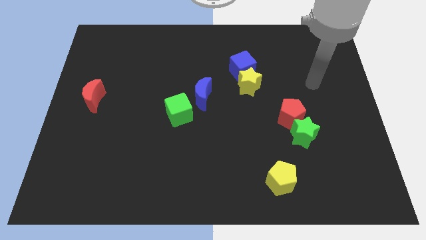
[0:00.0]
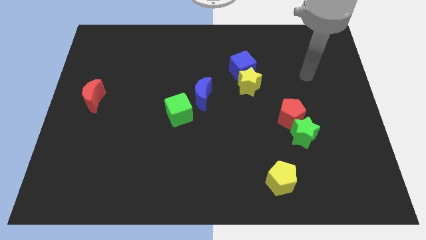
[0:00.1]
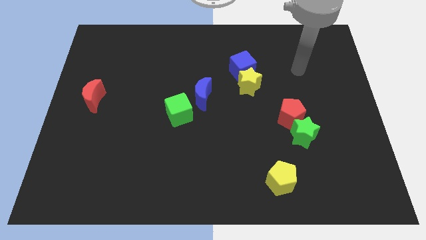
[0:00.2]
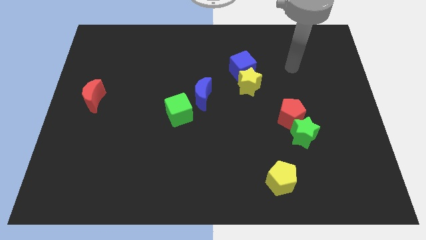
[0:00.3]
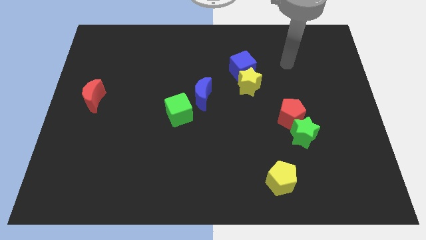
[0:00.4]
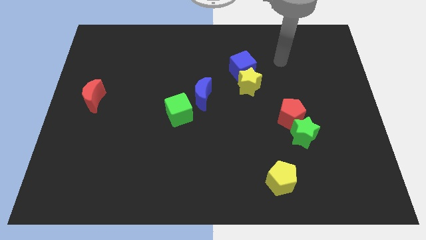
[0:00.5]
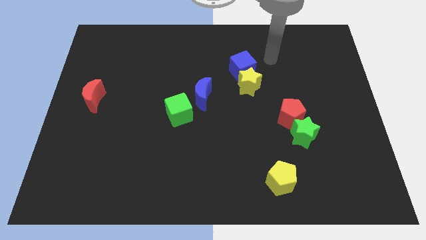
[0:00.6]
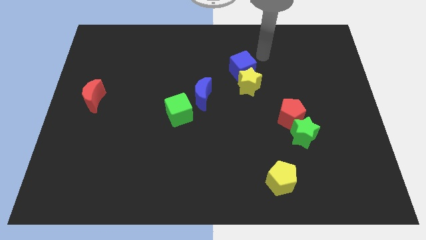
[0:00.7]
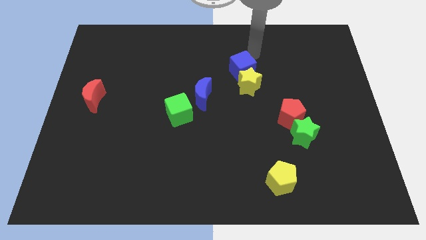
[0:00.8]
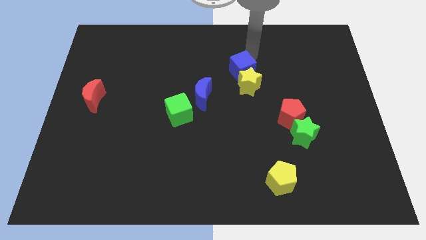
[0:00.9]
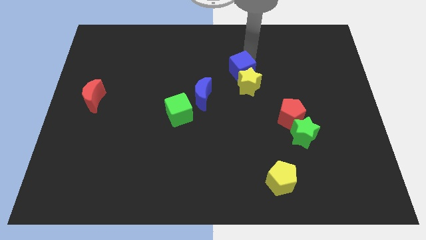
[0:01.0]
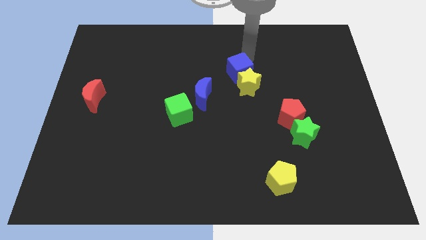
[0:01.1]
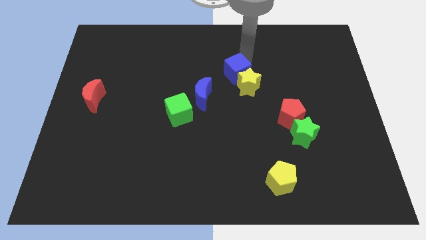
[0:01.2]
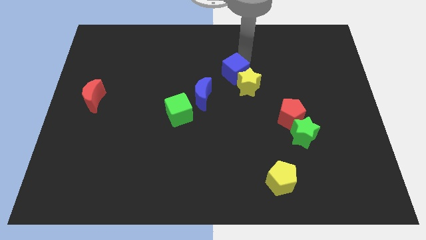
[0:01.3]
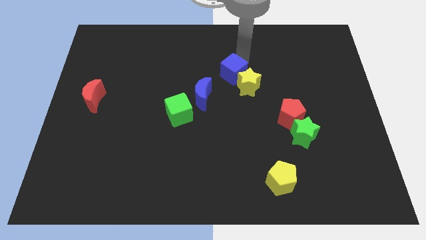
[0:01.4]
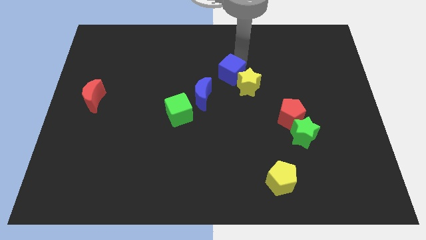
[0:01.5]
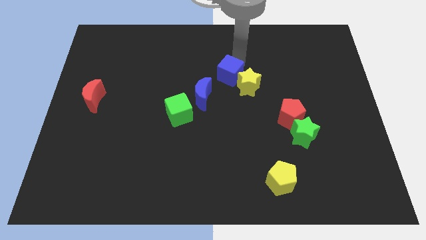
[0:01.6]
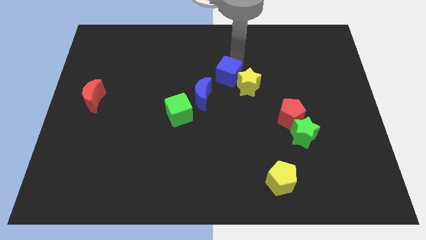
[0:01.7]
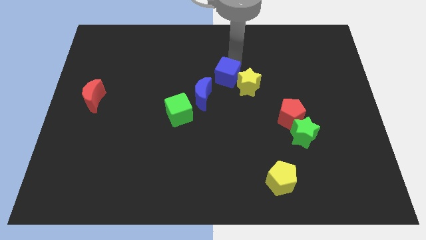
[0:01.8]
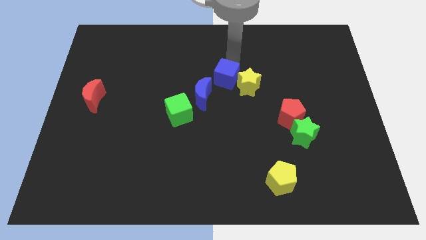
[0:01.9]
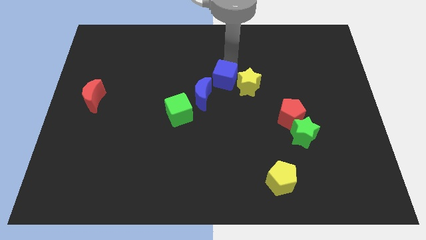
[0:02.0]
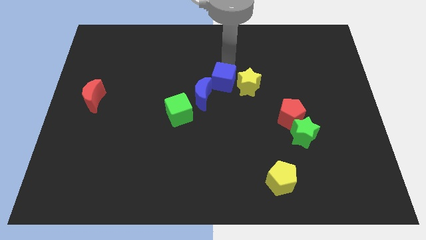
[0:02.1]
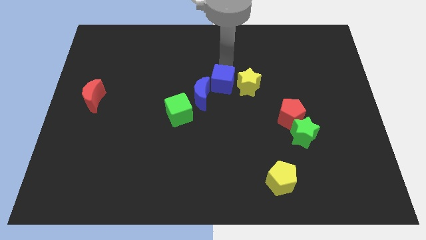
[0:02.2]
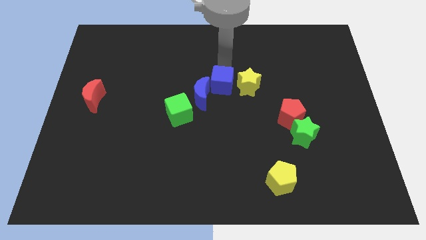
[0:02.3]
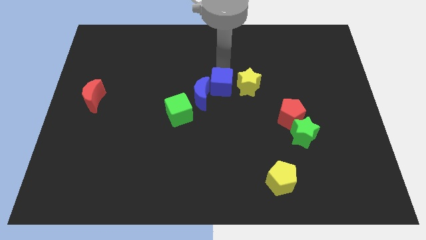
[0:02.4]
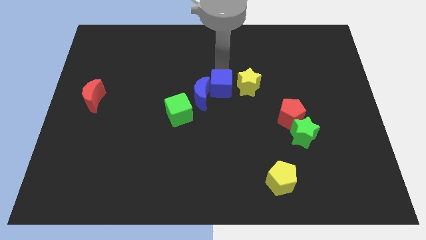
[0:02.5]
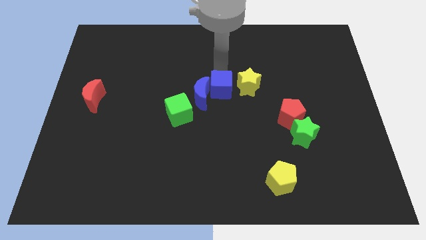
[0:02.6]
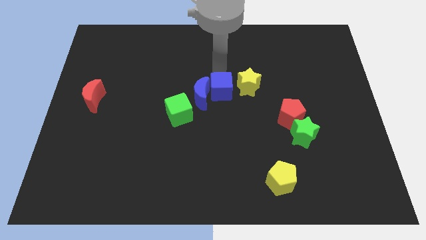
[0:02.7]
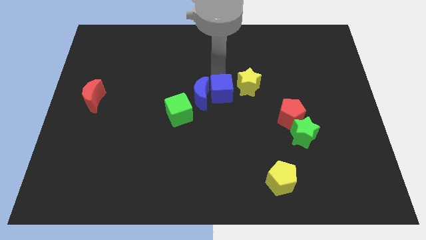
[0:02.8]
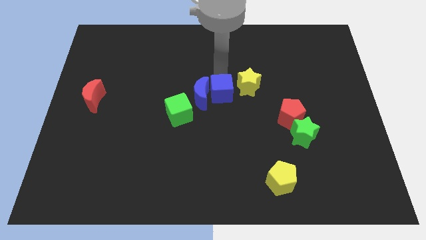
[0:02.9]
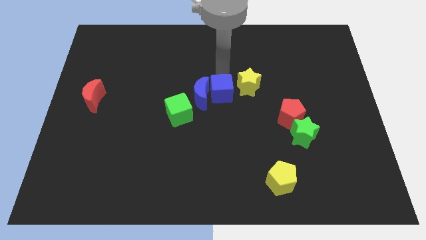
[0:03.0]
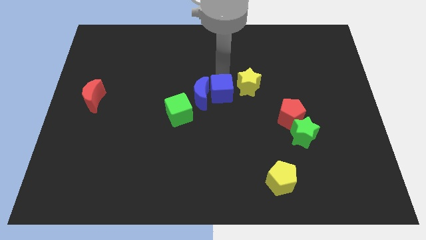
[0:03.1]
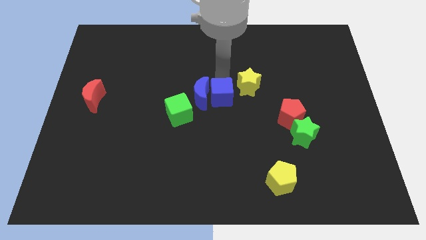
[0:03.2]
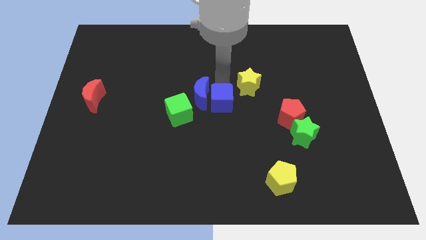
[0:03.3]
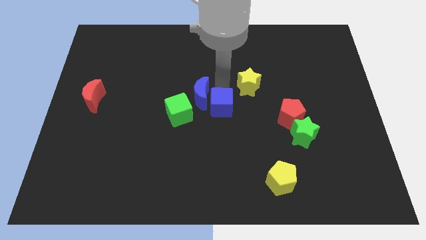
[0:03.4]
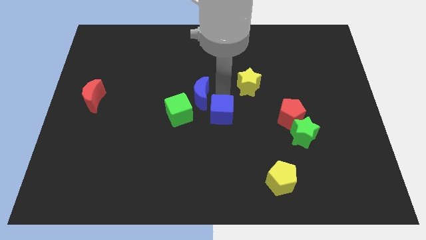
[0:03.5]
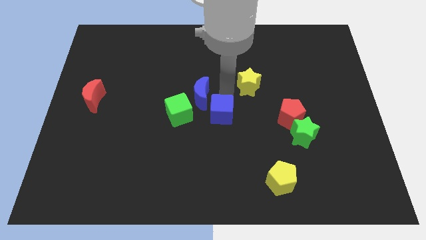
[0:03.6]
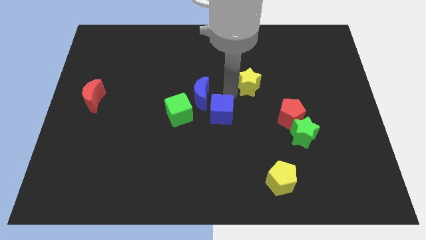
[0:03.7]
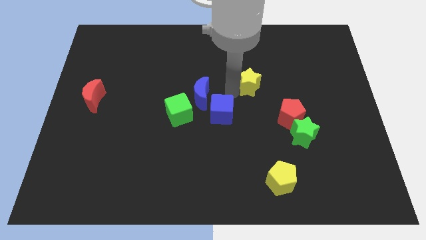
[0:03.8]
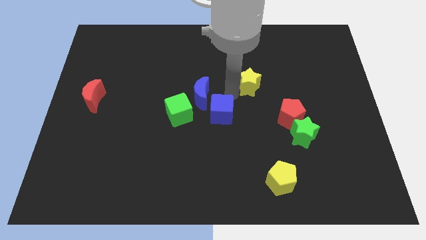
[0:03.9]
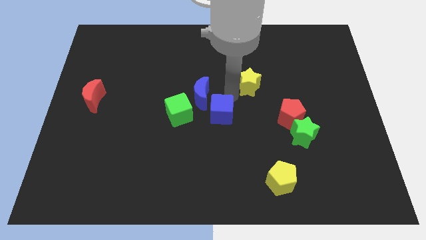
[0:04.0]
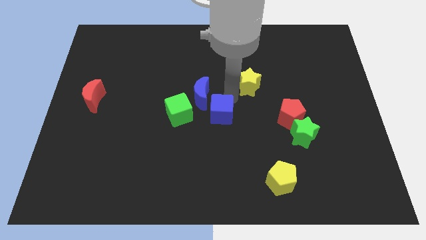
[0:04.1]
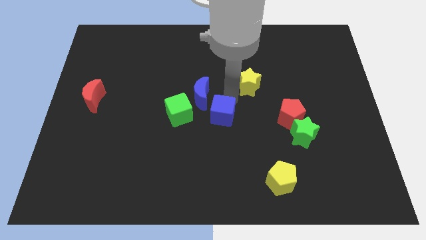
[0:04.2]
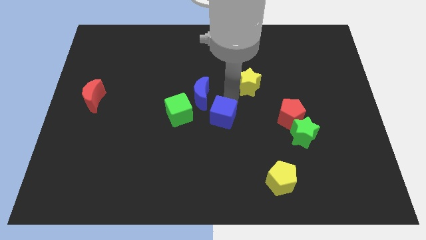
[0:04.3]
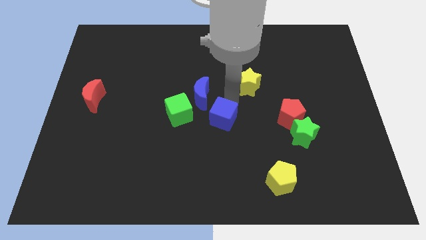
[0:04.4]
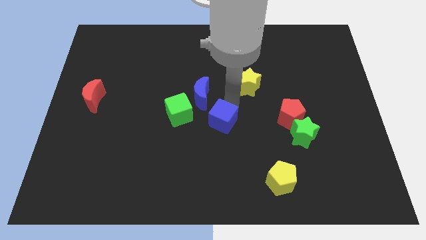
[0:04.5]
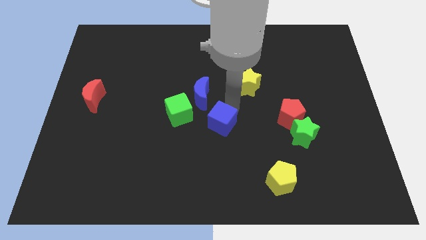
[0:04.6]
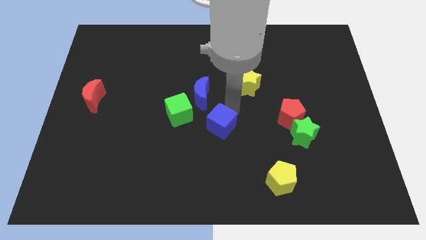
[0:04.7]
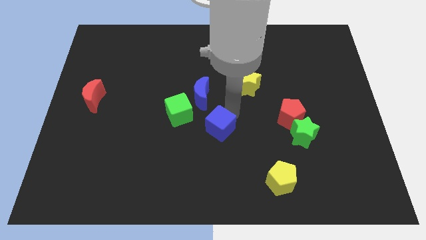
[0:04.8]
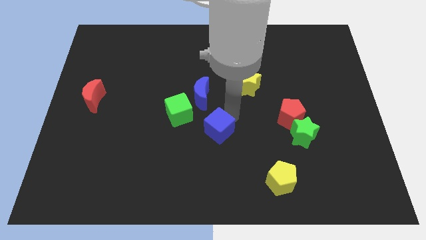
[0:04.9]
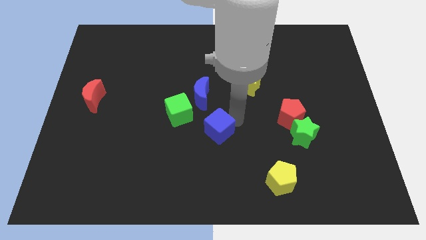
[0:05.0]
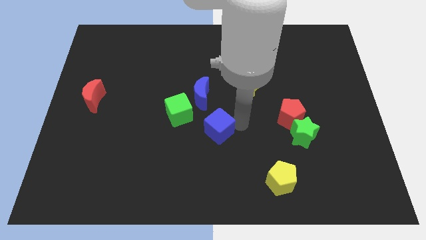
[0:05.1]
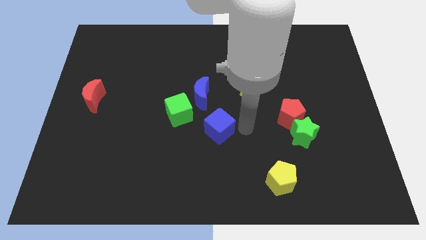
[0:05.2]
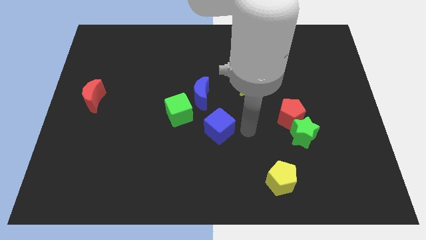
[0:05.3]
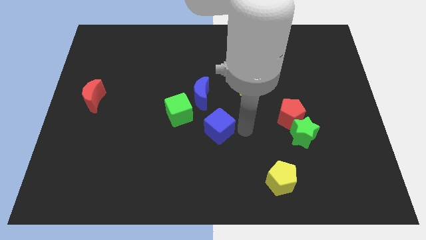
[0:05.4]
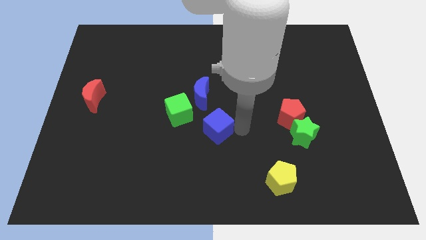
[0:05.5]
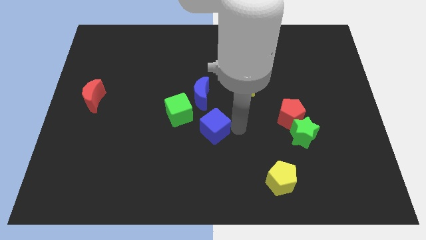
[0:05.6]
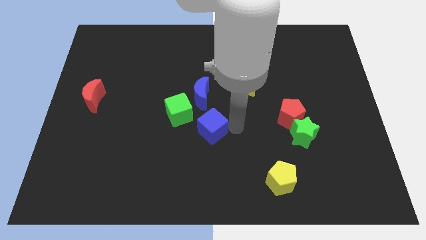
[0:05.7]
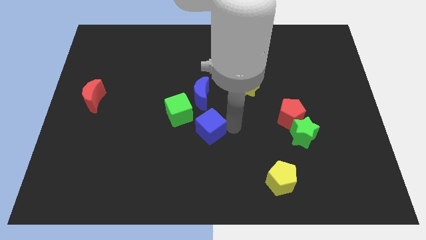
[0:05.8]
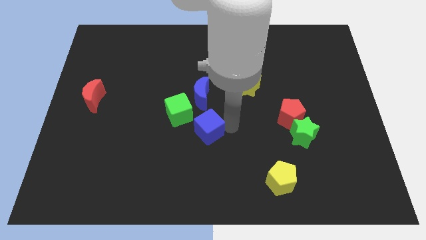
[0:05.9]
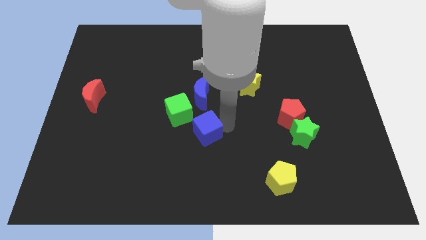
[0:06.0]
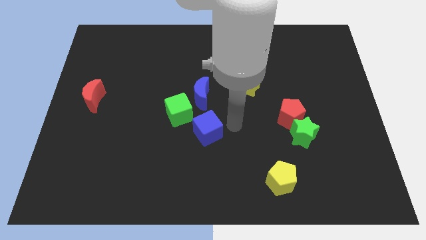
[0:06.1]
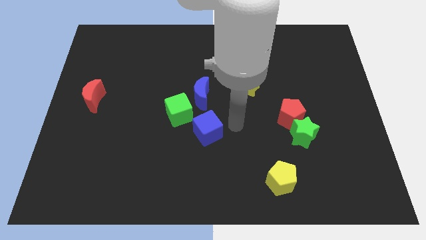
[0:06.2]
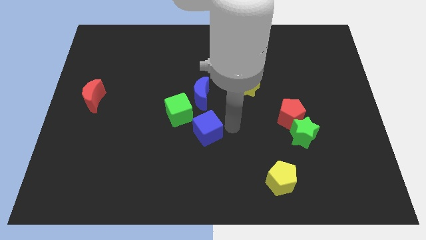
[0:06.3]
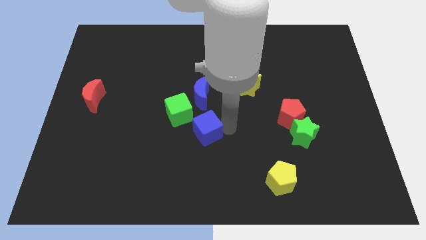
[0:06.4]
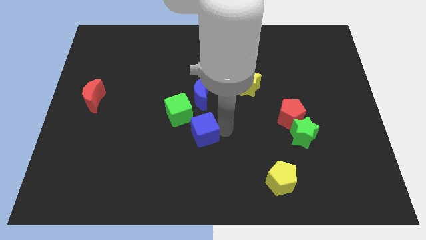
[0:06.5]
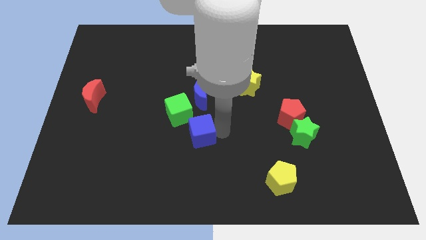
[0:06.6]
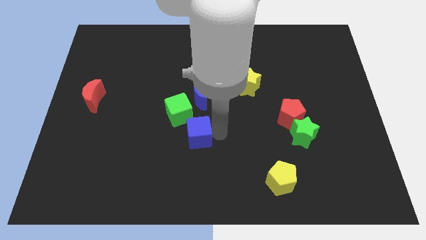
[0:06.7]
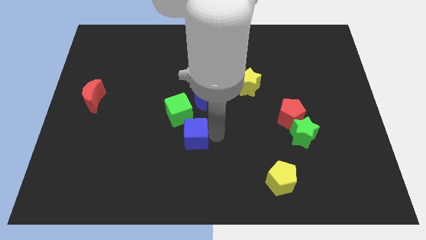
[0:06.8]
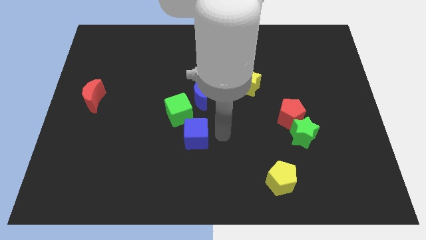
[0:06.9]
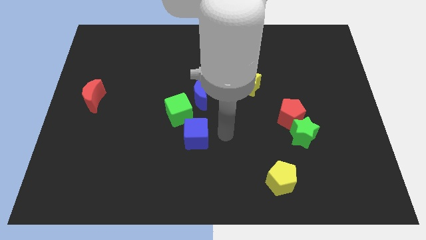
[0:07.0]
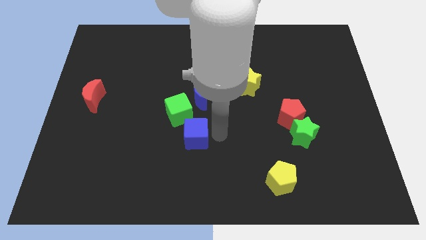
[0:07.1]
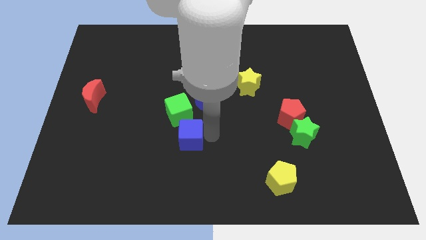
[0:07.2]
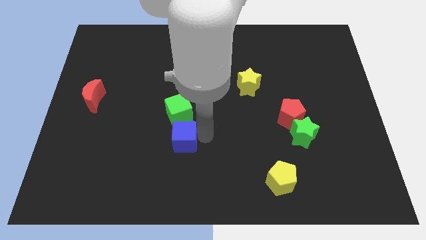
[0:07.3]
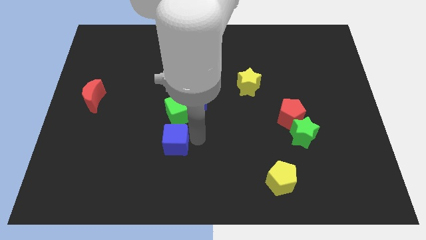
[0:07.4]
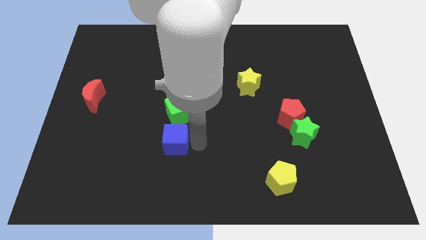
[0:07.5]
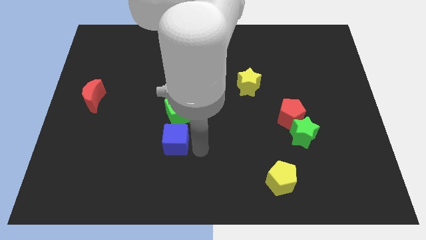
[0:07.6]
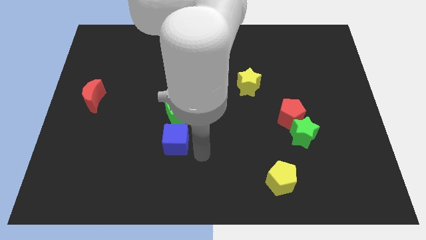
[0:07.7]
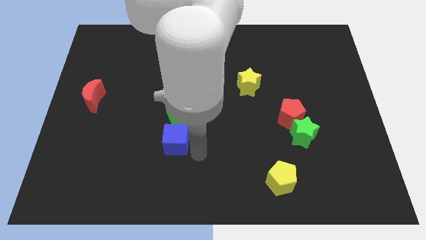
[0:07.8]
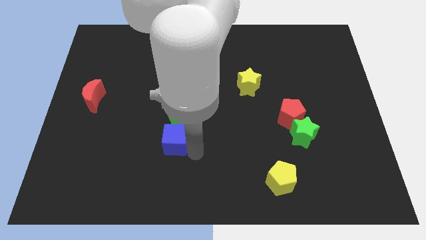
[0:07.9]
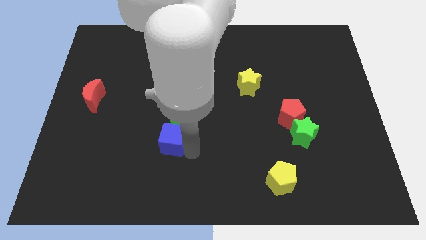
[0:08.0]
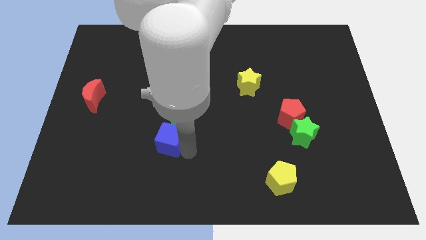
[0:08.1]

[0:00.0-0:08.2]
push the blue cube diagonally down and to the left of the green cube
